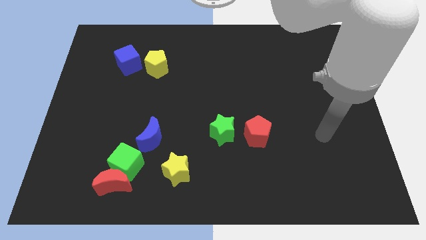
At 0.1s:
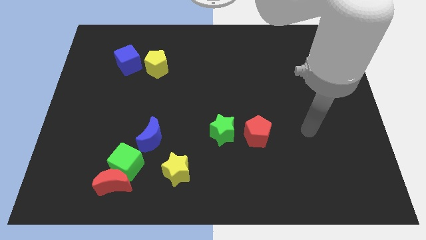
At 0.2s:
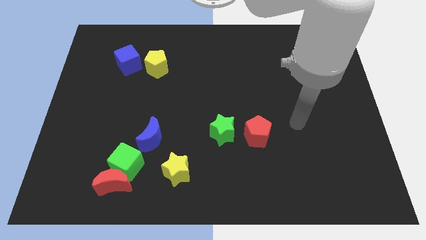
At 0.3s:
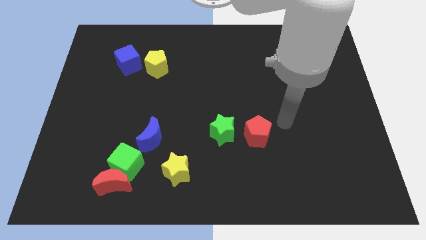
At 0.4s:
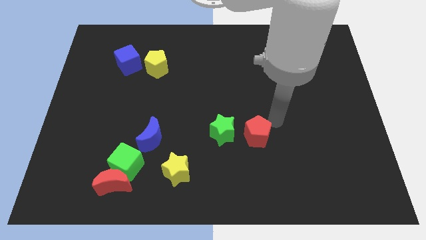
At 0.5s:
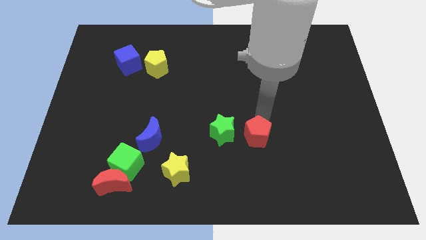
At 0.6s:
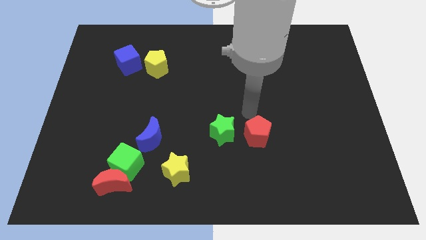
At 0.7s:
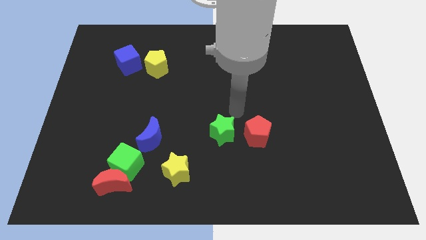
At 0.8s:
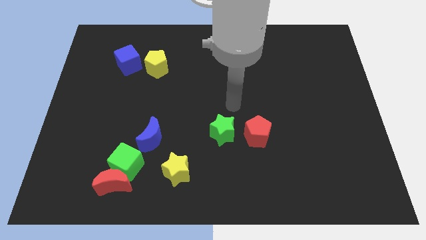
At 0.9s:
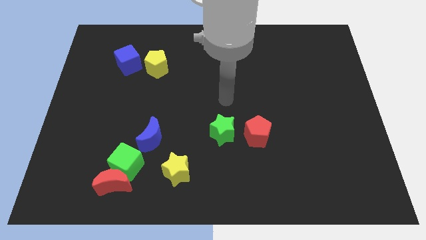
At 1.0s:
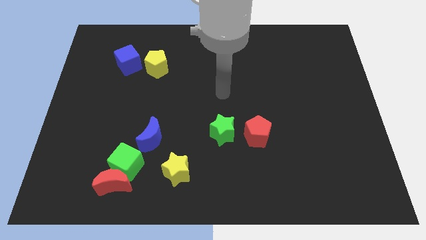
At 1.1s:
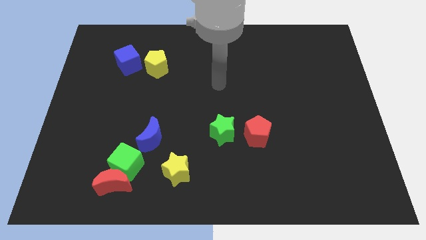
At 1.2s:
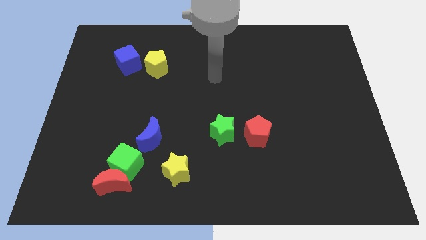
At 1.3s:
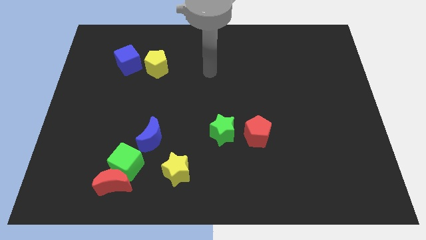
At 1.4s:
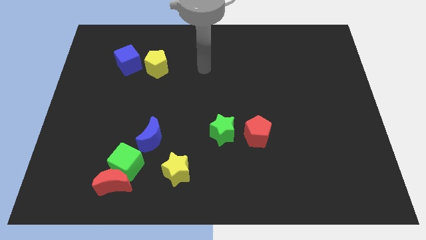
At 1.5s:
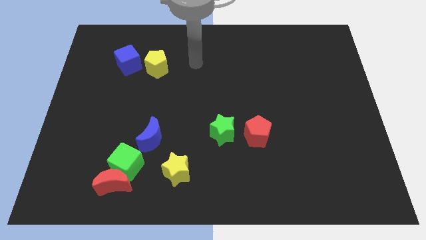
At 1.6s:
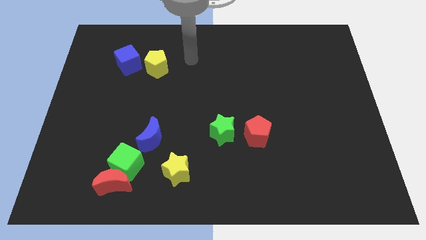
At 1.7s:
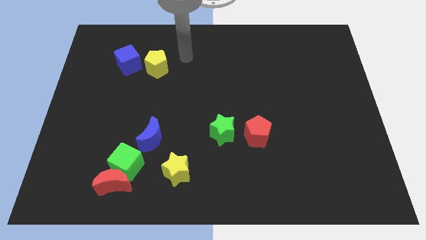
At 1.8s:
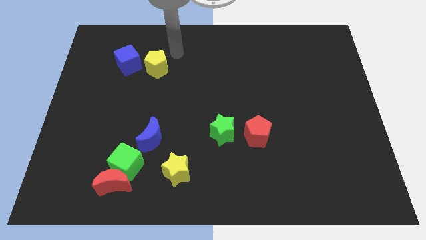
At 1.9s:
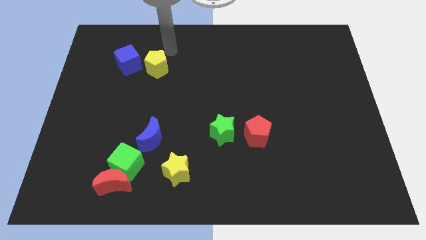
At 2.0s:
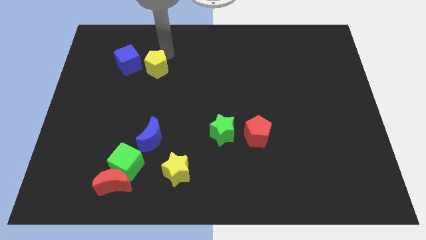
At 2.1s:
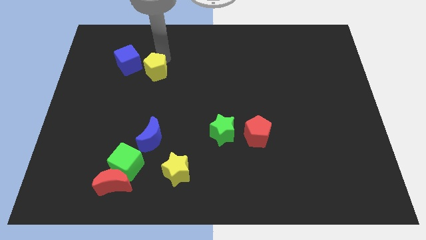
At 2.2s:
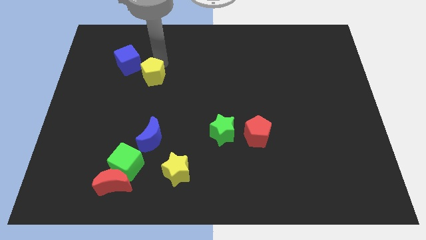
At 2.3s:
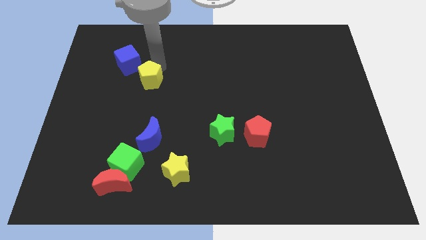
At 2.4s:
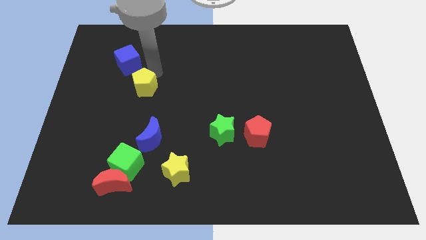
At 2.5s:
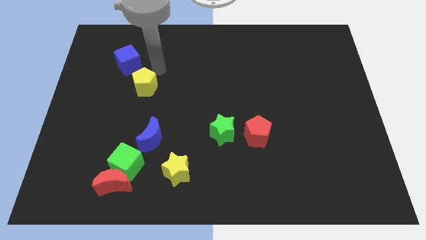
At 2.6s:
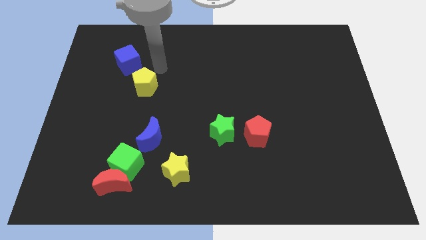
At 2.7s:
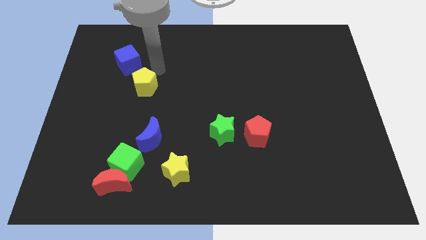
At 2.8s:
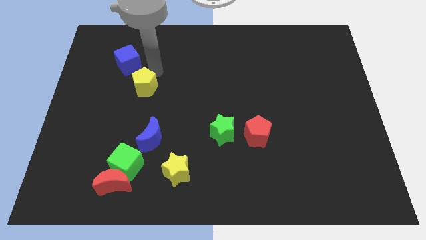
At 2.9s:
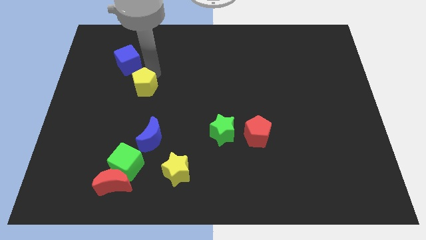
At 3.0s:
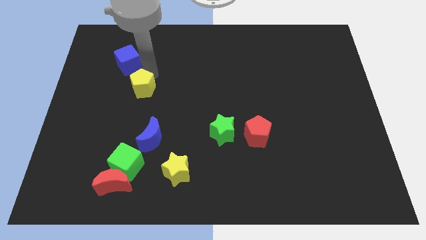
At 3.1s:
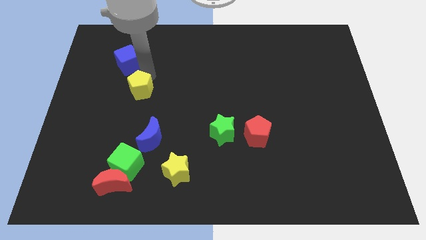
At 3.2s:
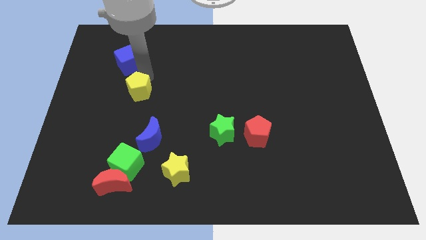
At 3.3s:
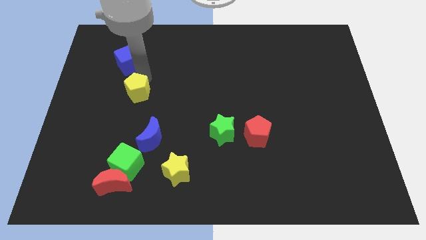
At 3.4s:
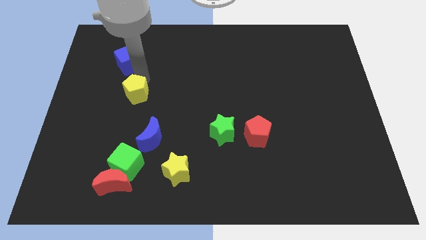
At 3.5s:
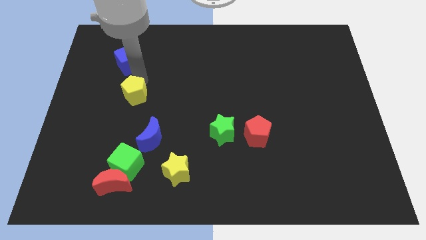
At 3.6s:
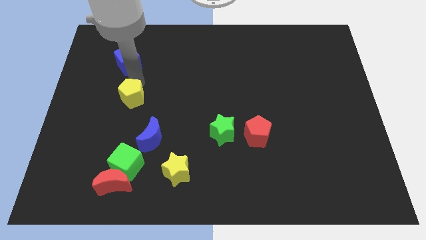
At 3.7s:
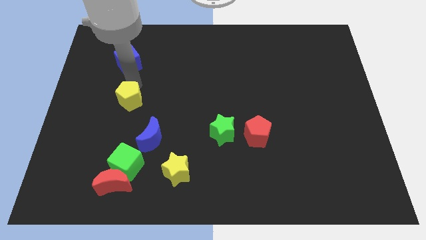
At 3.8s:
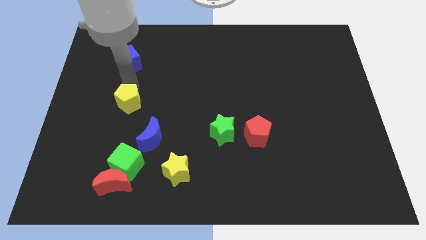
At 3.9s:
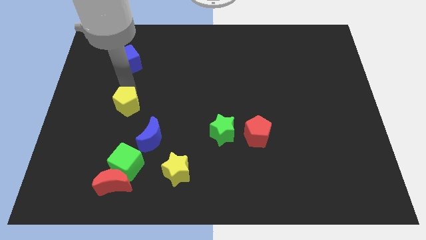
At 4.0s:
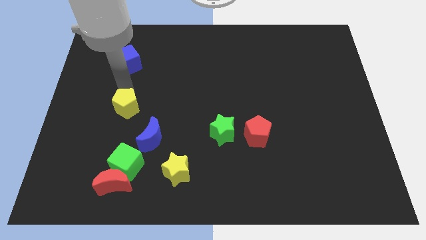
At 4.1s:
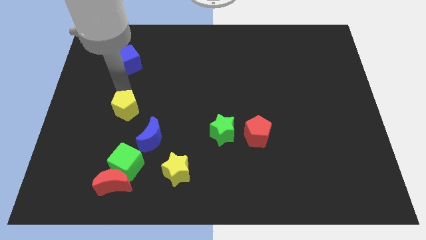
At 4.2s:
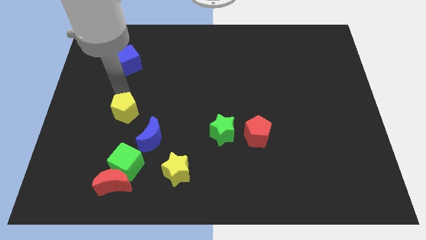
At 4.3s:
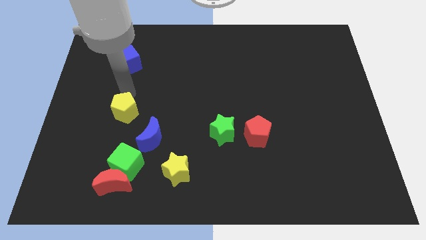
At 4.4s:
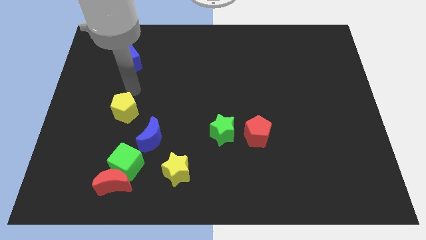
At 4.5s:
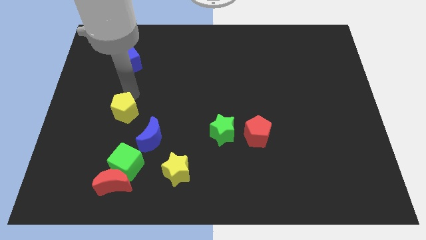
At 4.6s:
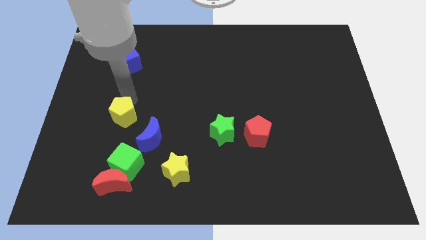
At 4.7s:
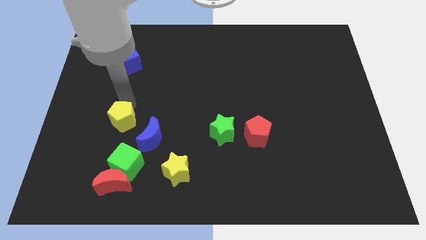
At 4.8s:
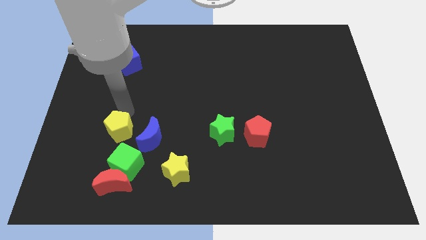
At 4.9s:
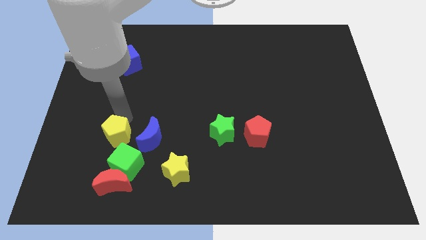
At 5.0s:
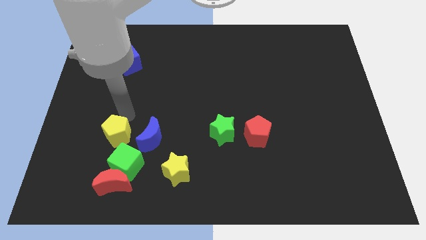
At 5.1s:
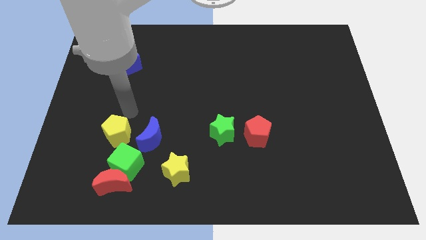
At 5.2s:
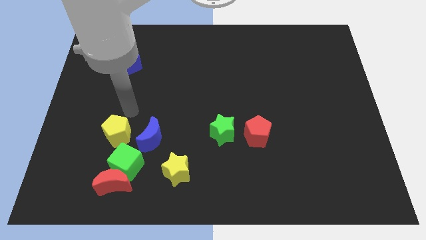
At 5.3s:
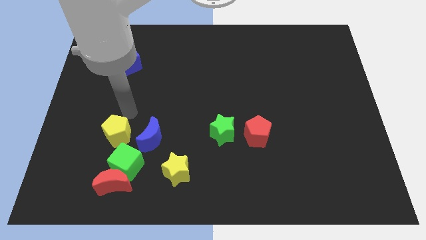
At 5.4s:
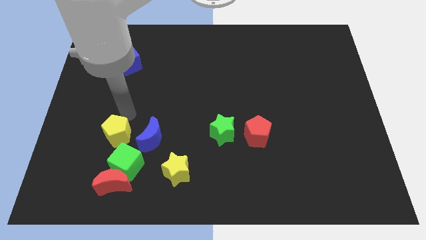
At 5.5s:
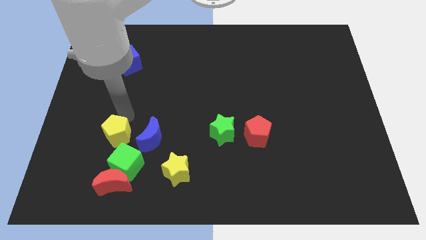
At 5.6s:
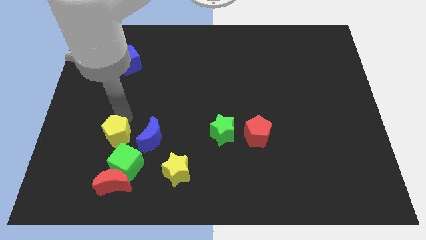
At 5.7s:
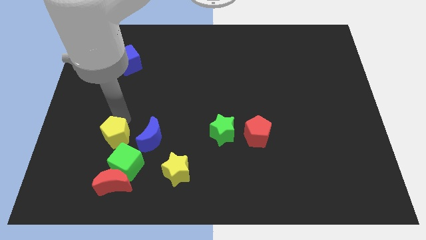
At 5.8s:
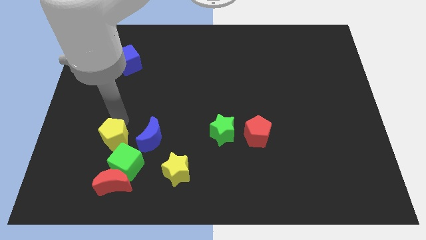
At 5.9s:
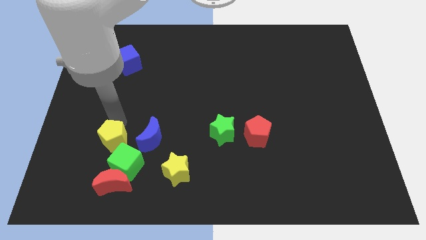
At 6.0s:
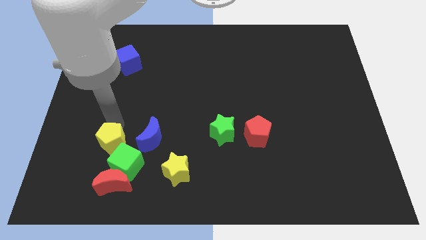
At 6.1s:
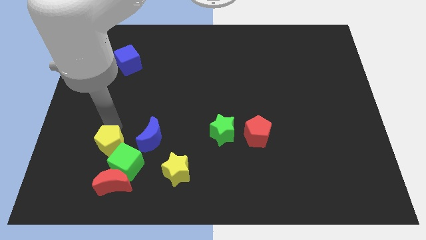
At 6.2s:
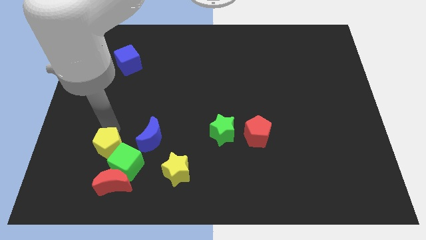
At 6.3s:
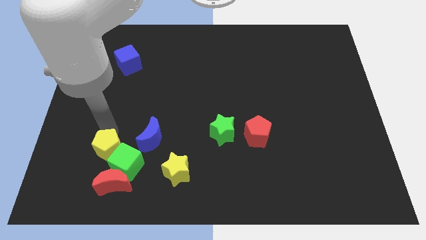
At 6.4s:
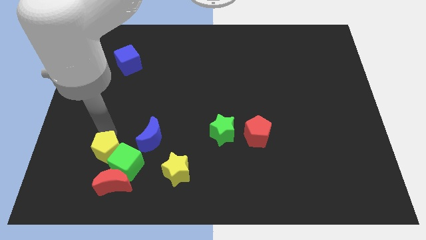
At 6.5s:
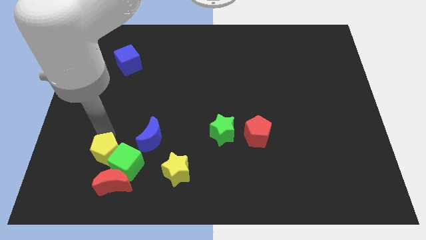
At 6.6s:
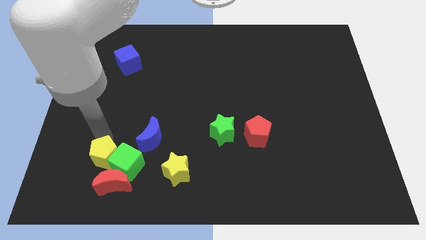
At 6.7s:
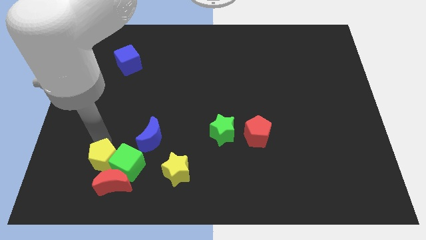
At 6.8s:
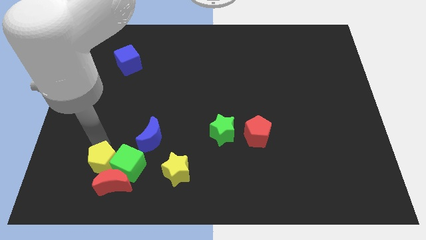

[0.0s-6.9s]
slide the yellow pentagon to the red moon

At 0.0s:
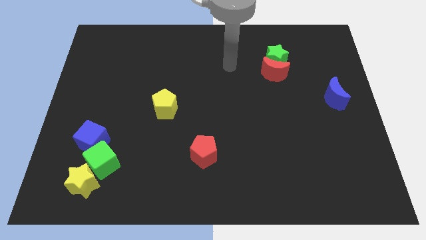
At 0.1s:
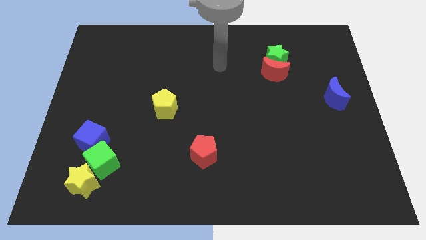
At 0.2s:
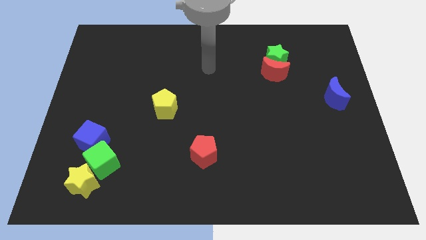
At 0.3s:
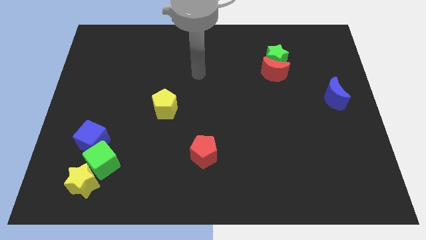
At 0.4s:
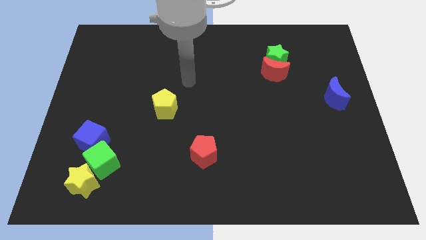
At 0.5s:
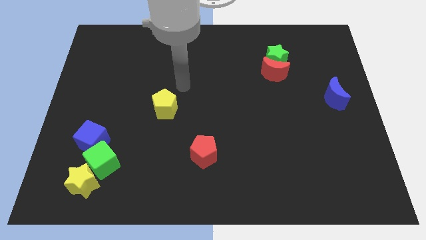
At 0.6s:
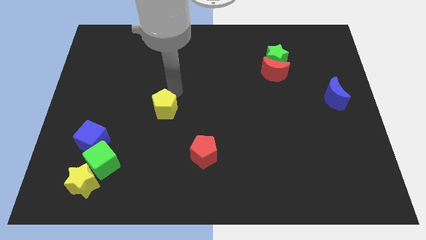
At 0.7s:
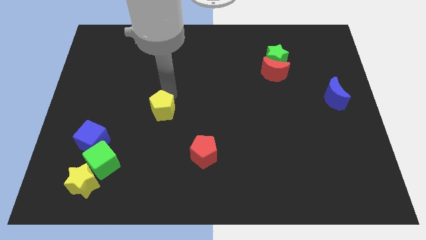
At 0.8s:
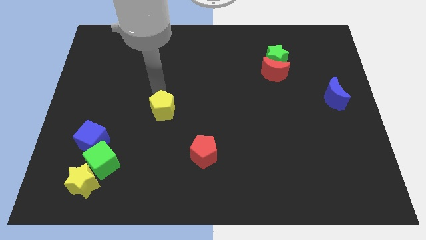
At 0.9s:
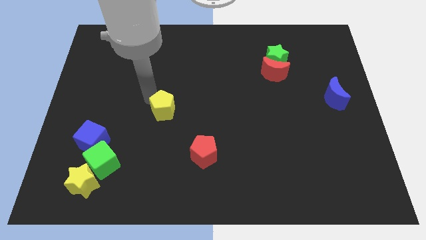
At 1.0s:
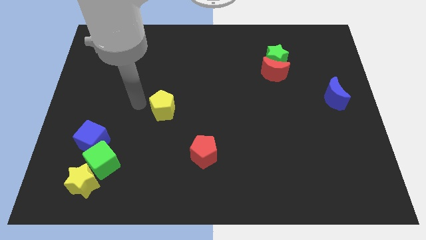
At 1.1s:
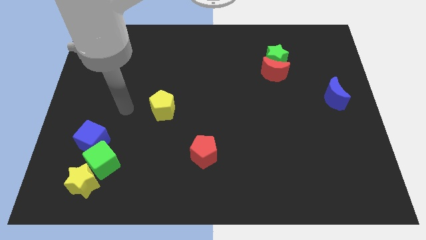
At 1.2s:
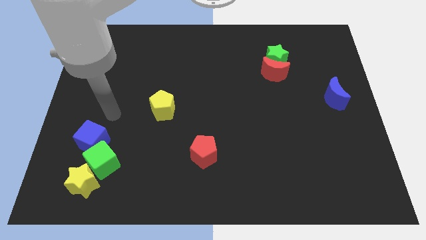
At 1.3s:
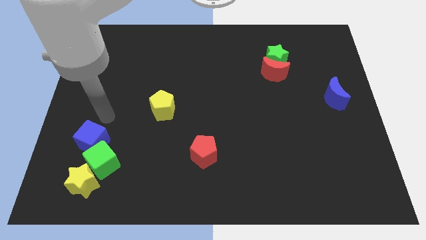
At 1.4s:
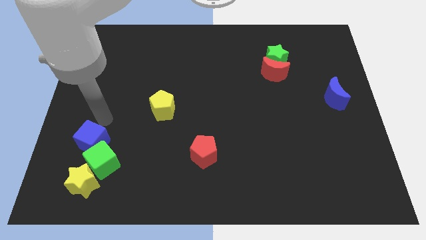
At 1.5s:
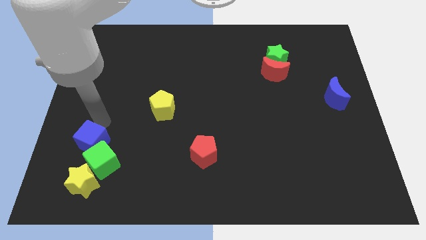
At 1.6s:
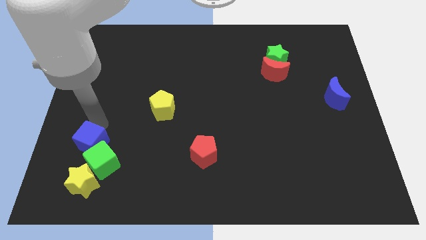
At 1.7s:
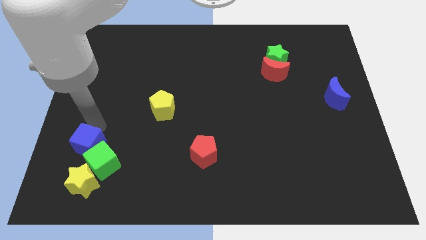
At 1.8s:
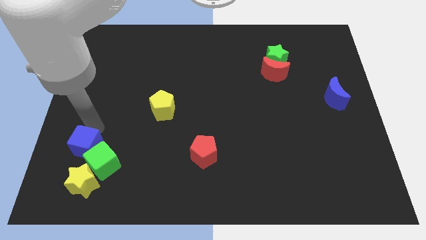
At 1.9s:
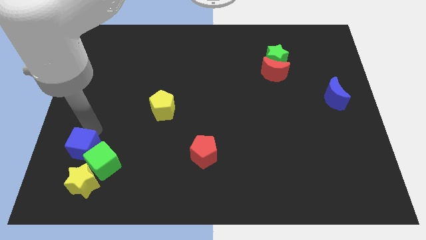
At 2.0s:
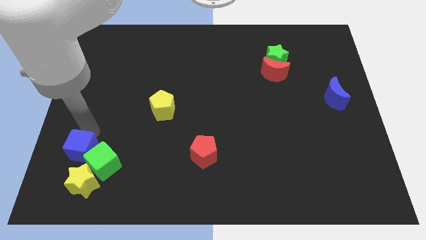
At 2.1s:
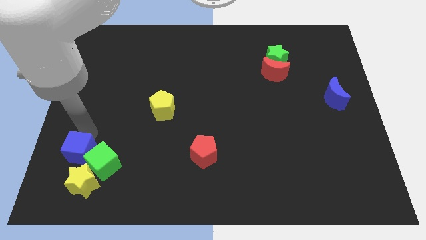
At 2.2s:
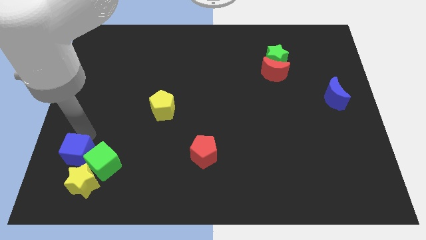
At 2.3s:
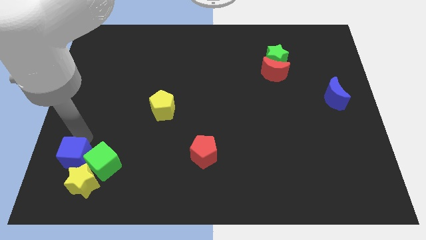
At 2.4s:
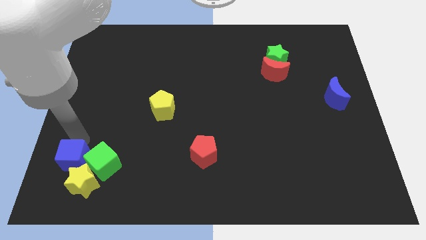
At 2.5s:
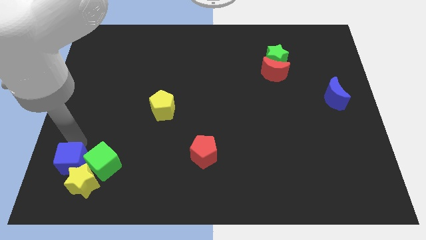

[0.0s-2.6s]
put the blue cube to the yellow star
